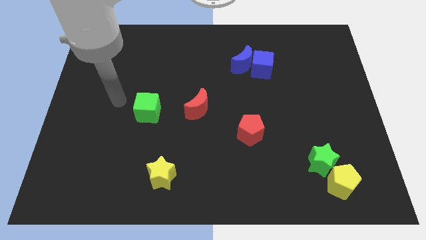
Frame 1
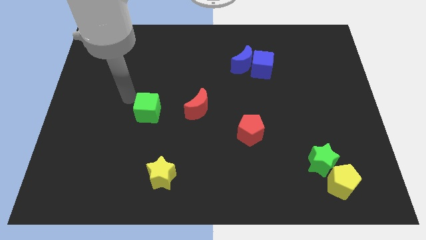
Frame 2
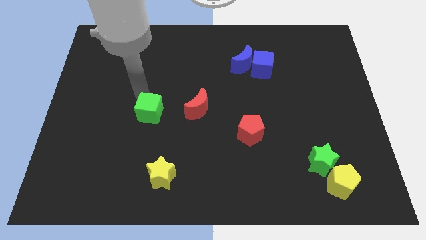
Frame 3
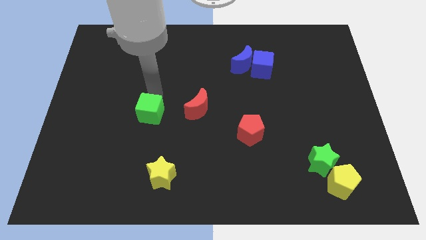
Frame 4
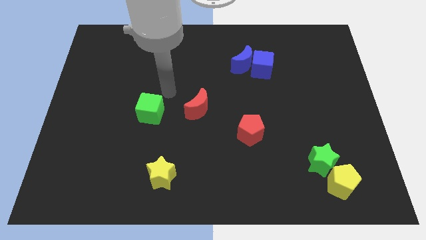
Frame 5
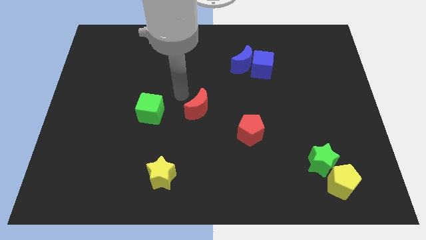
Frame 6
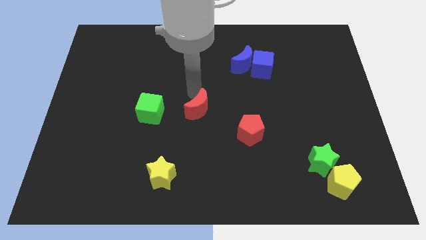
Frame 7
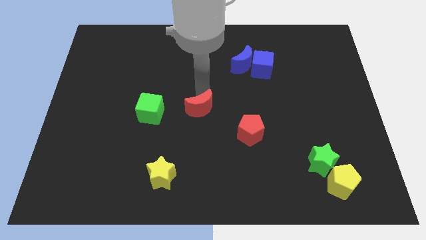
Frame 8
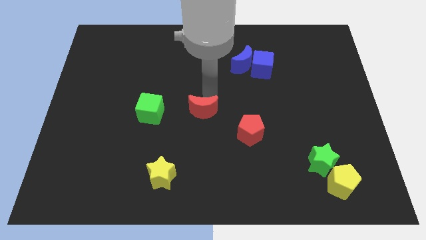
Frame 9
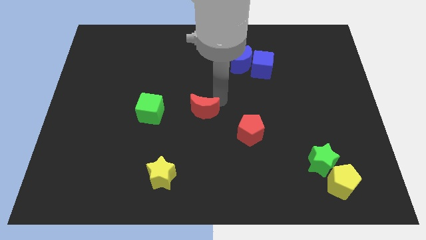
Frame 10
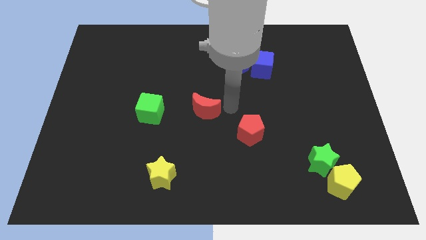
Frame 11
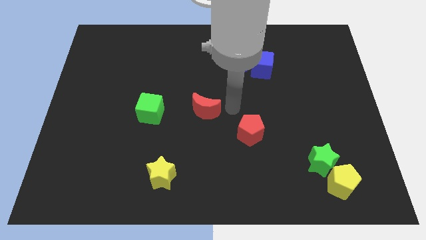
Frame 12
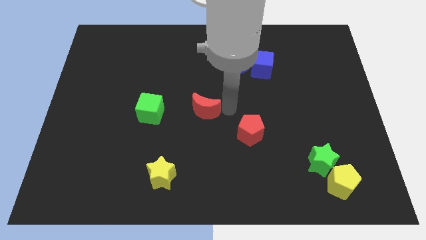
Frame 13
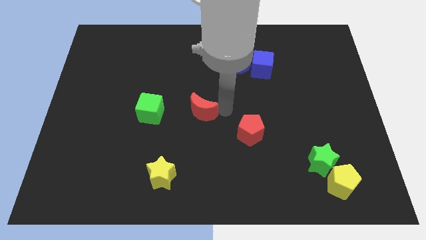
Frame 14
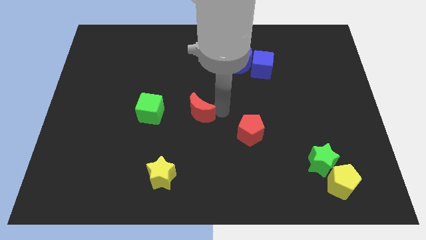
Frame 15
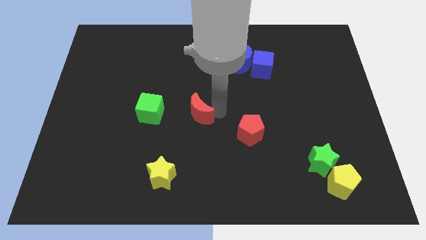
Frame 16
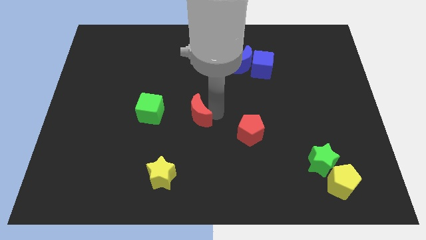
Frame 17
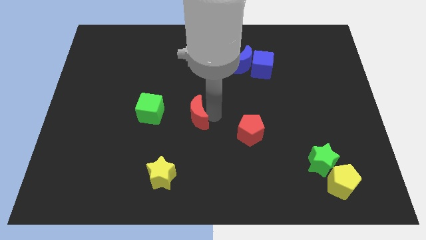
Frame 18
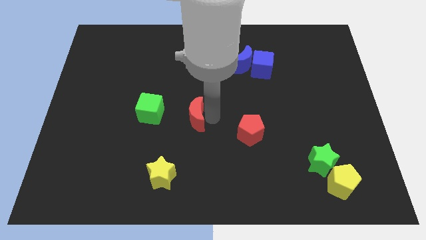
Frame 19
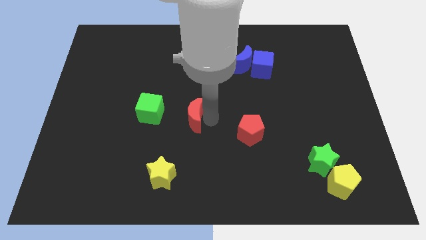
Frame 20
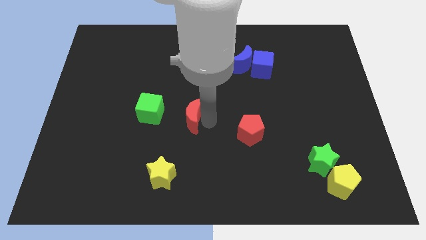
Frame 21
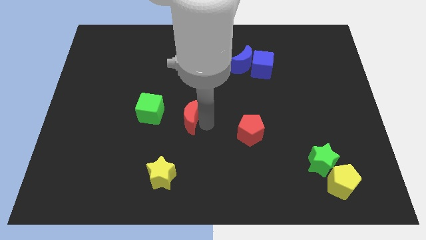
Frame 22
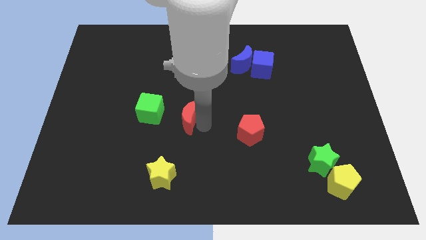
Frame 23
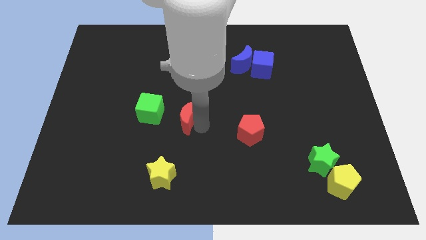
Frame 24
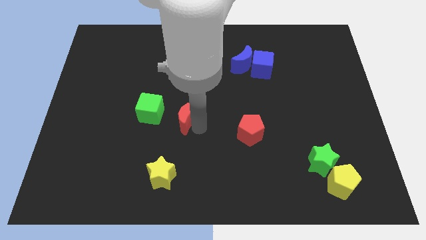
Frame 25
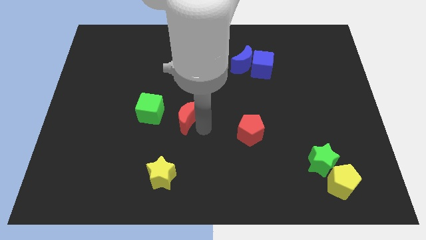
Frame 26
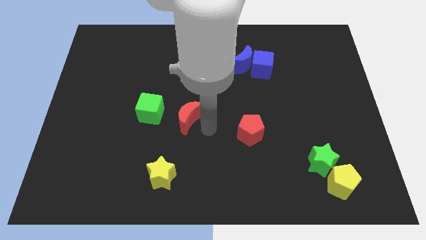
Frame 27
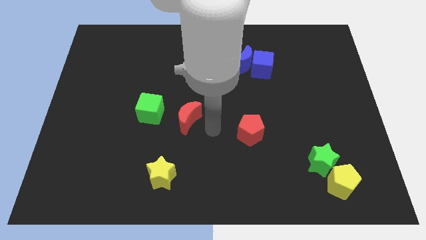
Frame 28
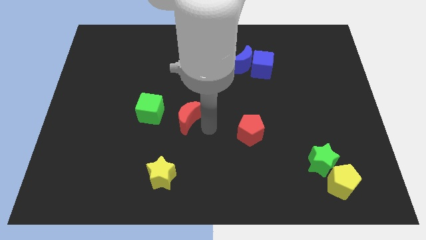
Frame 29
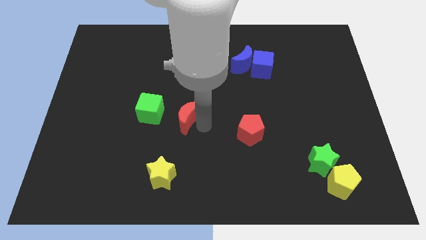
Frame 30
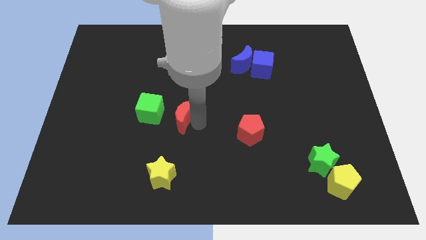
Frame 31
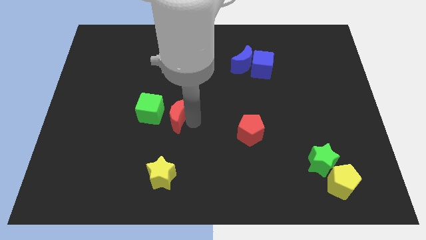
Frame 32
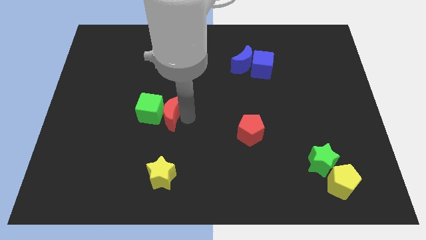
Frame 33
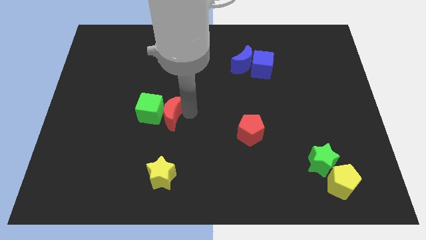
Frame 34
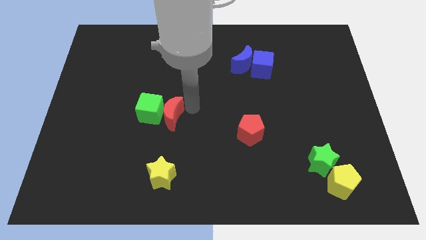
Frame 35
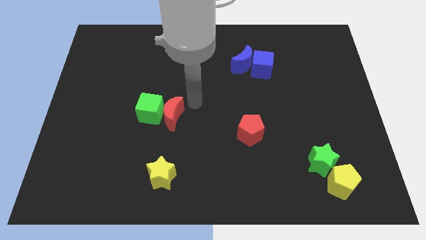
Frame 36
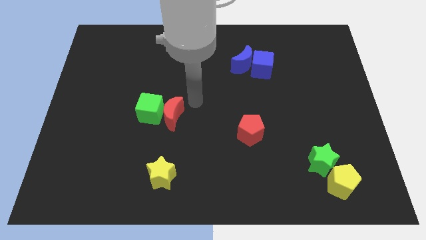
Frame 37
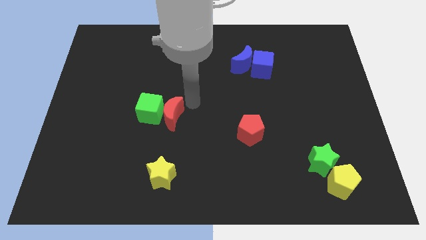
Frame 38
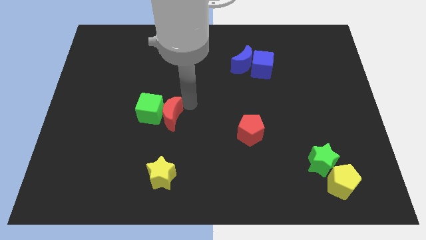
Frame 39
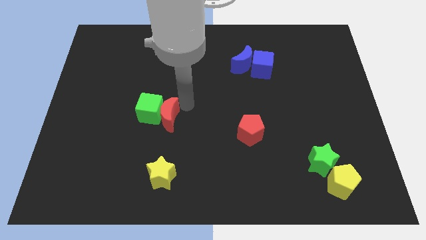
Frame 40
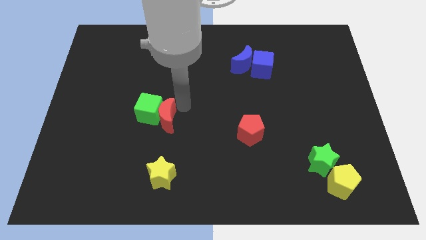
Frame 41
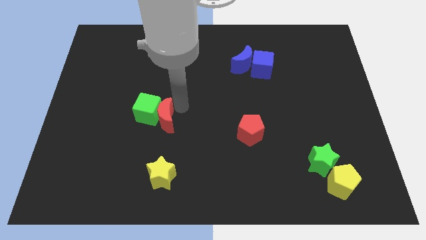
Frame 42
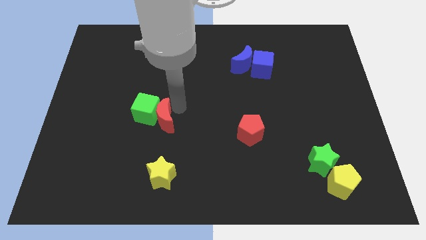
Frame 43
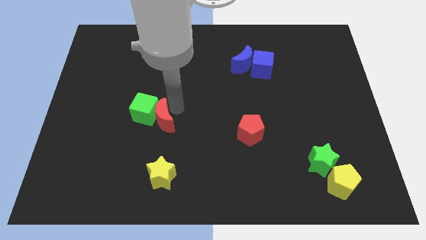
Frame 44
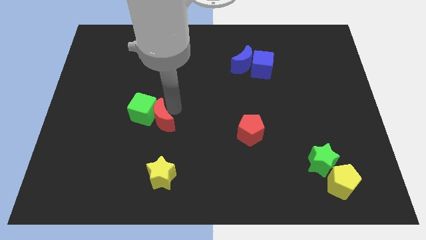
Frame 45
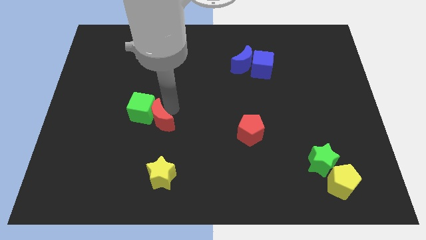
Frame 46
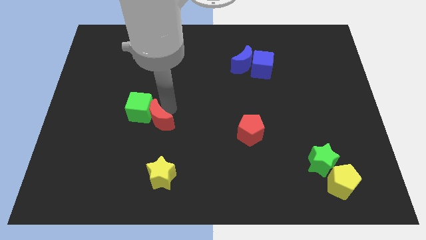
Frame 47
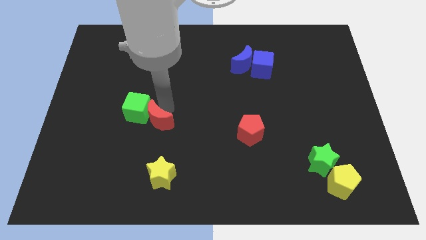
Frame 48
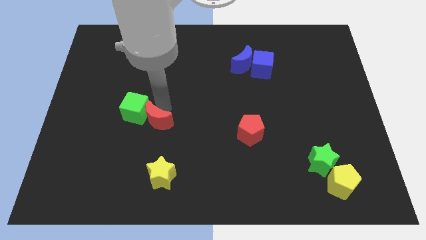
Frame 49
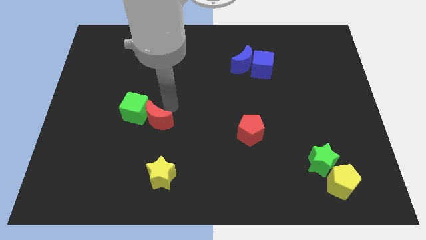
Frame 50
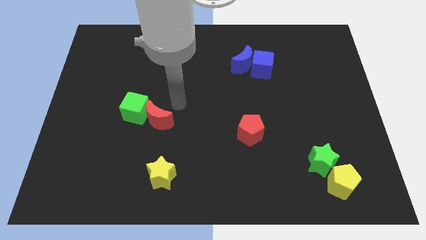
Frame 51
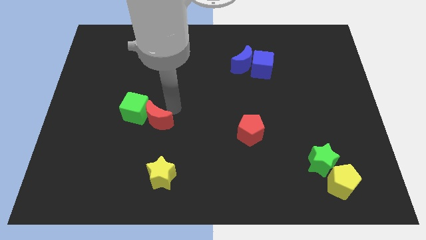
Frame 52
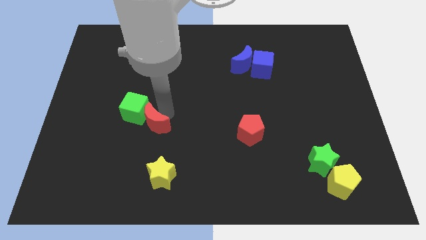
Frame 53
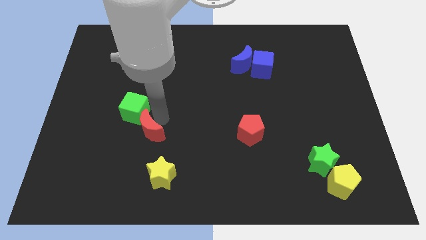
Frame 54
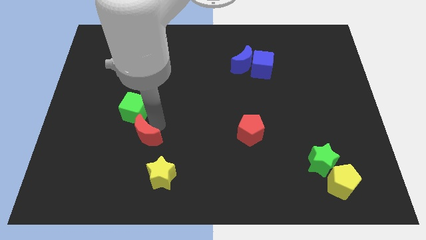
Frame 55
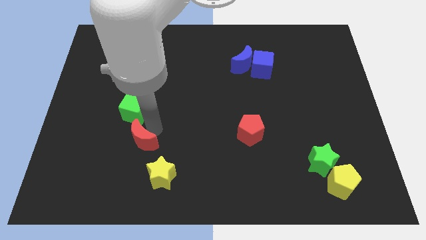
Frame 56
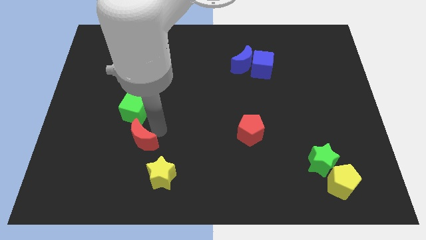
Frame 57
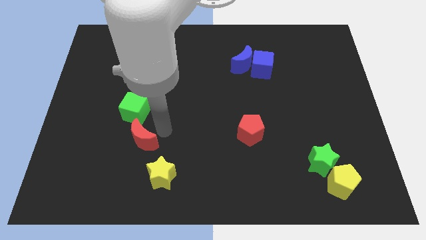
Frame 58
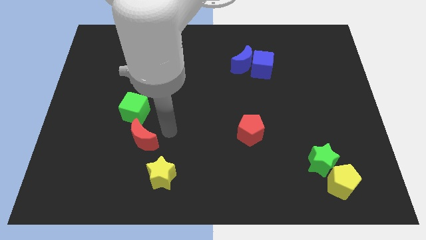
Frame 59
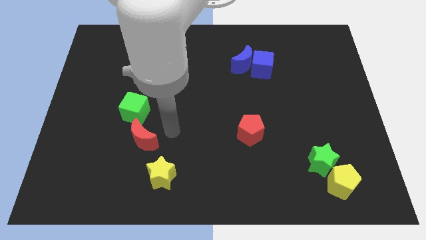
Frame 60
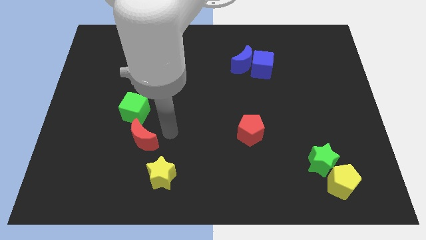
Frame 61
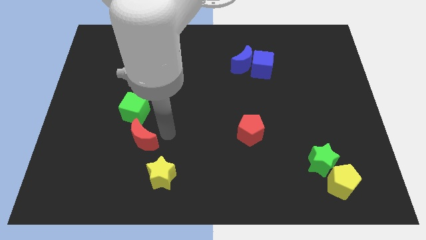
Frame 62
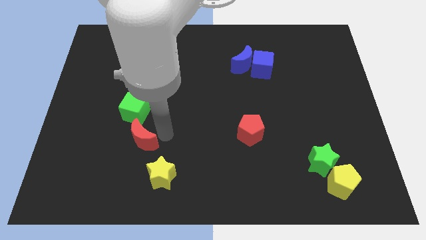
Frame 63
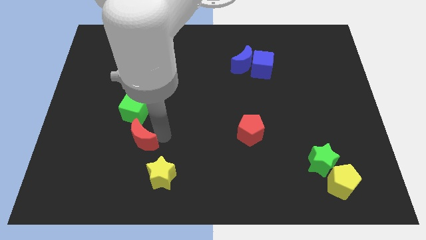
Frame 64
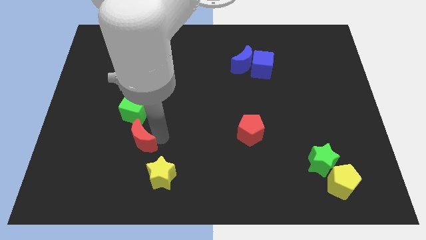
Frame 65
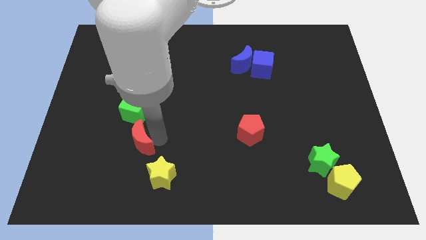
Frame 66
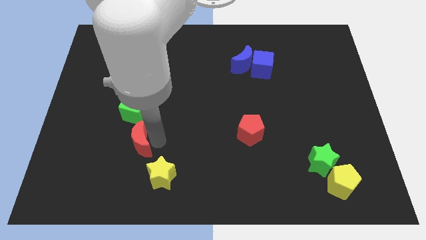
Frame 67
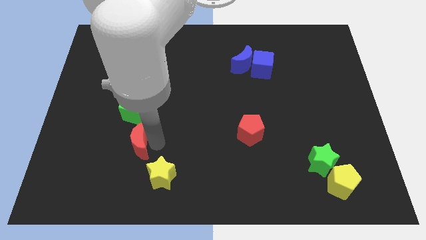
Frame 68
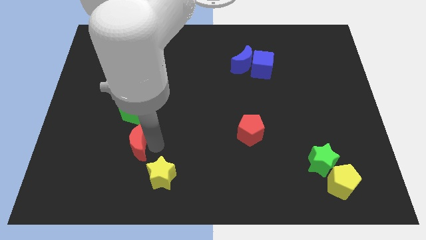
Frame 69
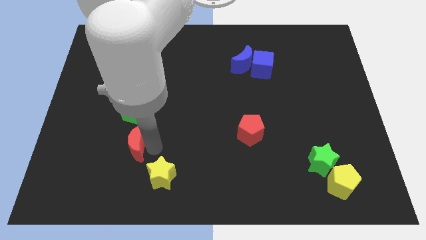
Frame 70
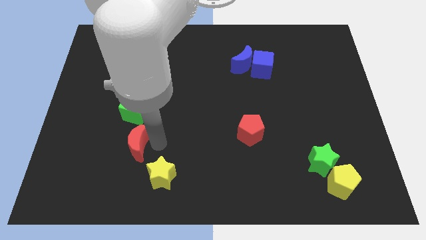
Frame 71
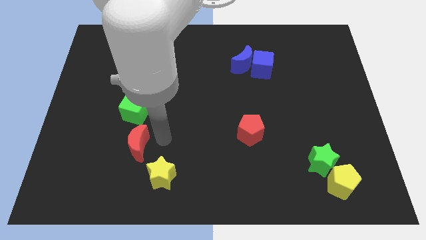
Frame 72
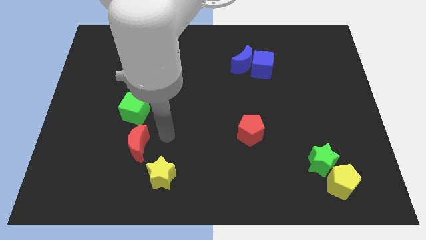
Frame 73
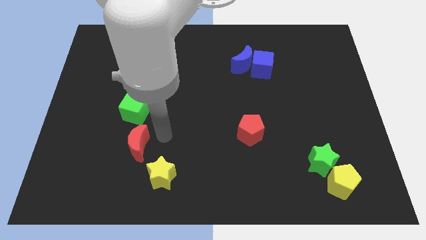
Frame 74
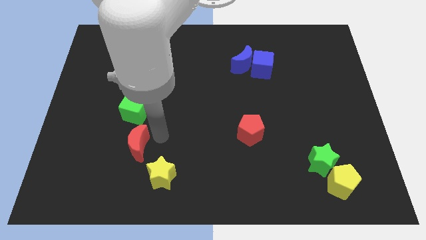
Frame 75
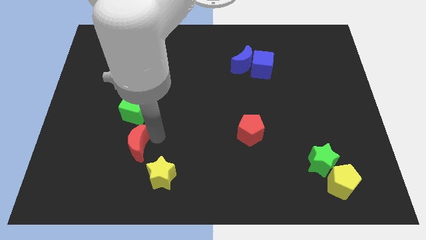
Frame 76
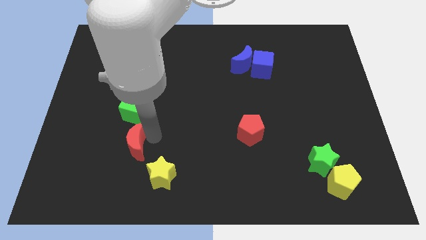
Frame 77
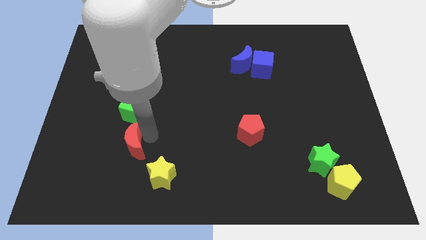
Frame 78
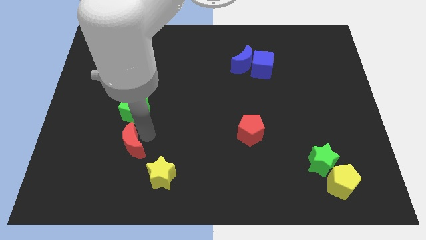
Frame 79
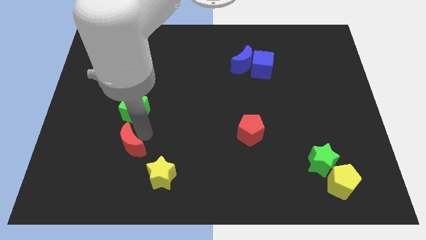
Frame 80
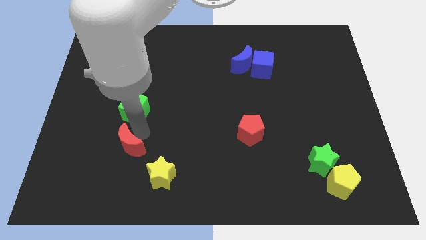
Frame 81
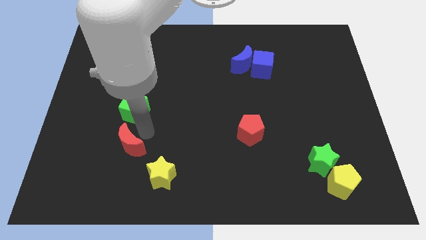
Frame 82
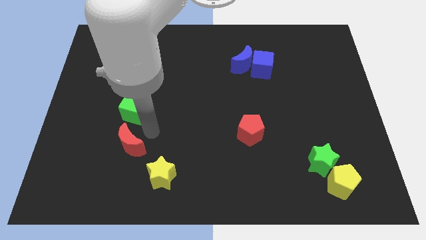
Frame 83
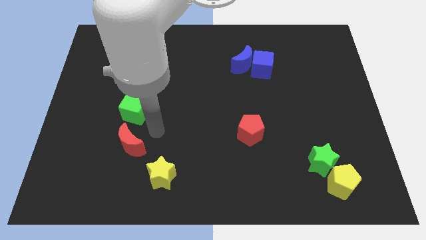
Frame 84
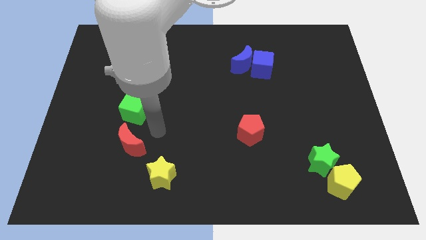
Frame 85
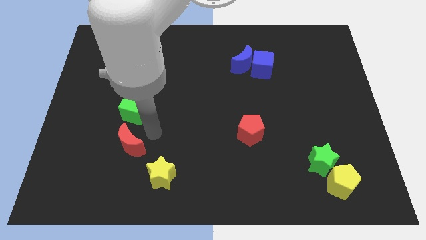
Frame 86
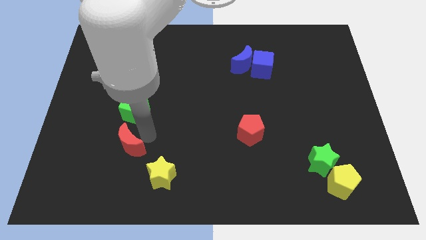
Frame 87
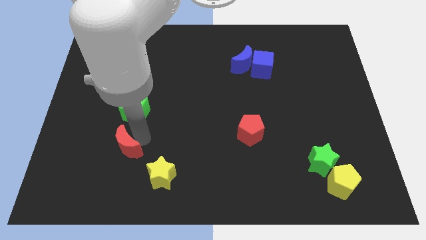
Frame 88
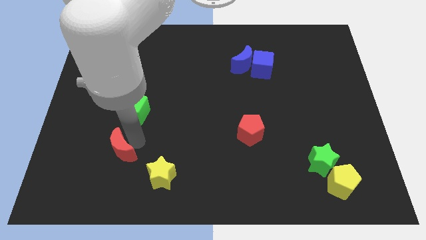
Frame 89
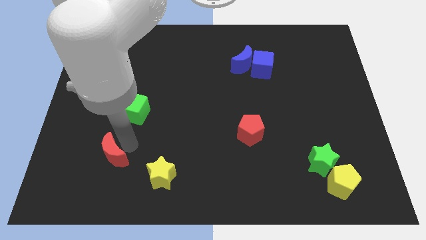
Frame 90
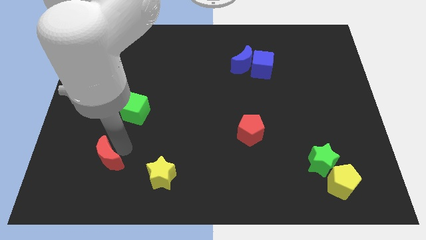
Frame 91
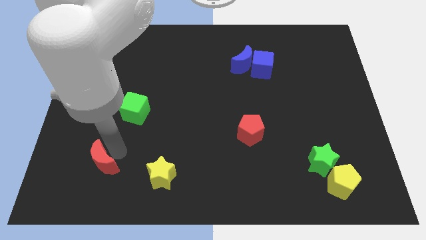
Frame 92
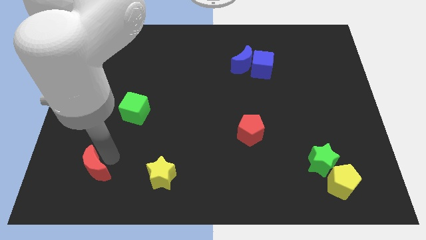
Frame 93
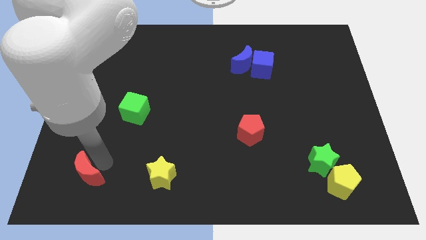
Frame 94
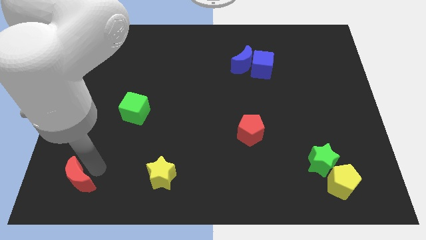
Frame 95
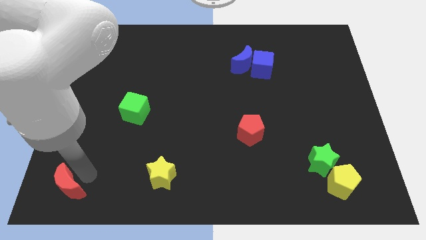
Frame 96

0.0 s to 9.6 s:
slide the red moon to the lower left corner
